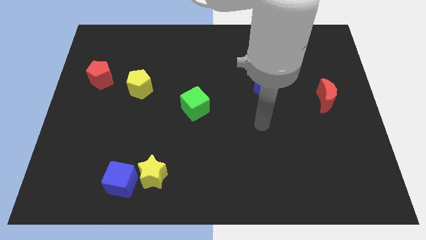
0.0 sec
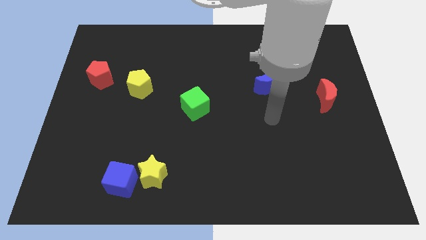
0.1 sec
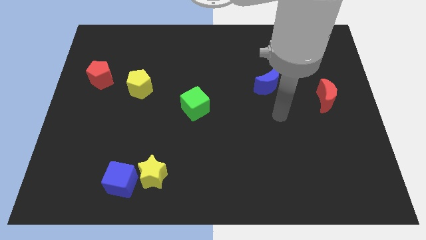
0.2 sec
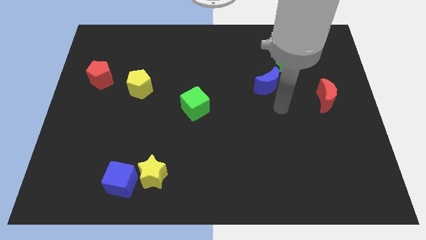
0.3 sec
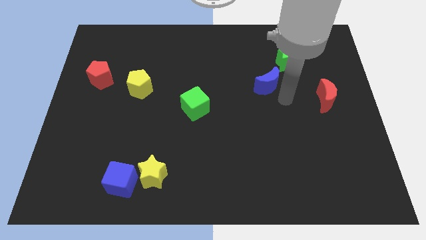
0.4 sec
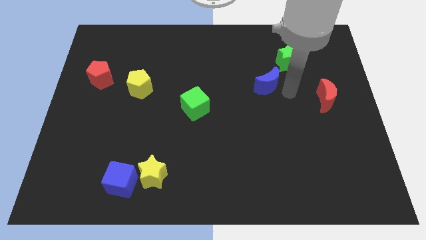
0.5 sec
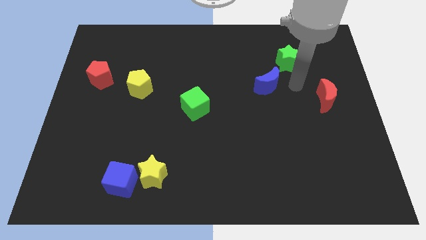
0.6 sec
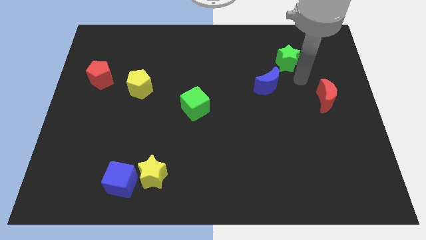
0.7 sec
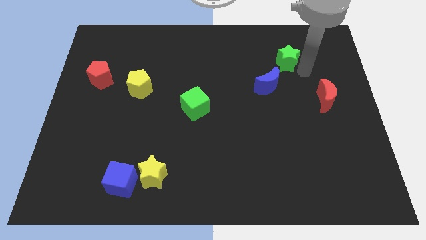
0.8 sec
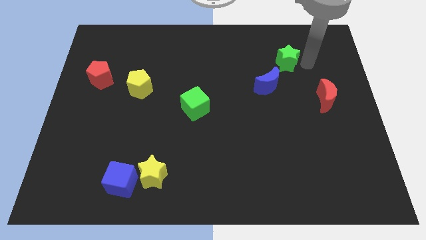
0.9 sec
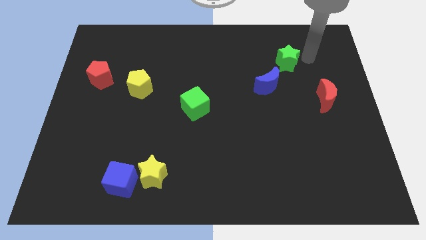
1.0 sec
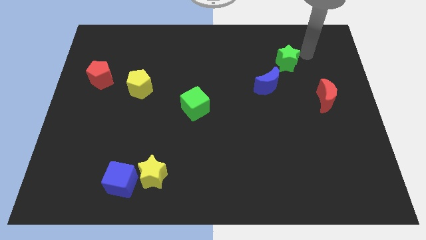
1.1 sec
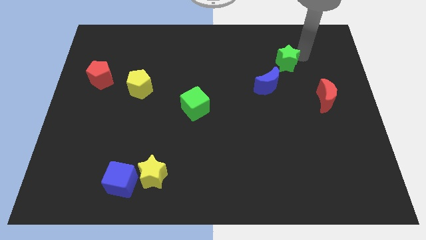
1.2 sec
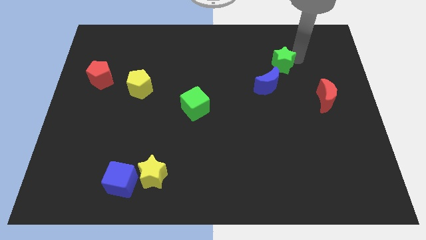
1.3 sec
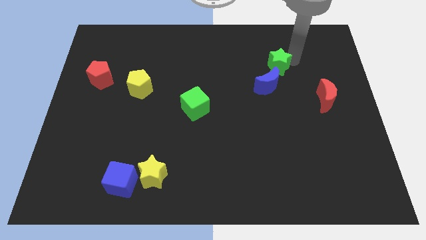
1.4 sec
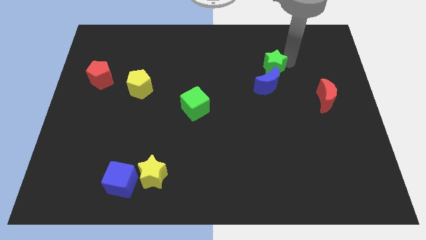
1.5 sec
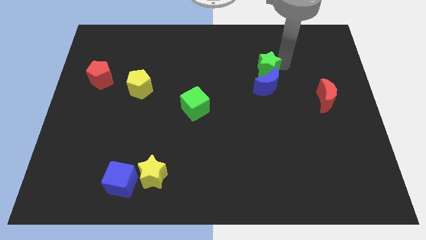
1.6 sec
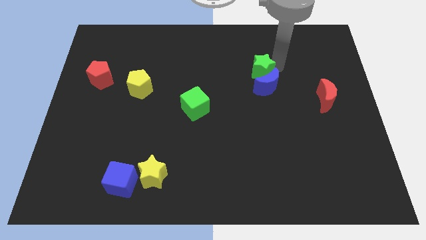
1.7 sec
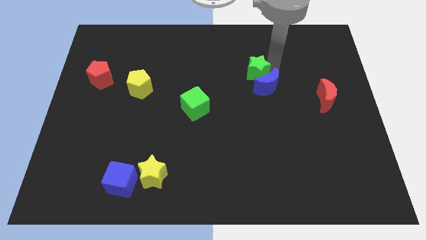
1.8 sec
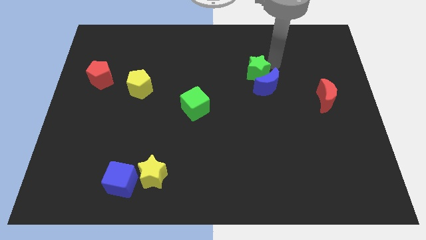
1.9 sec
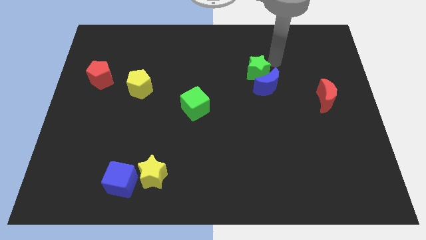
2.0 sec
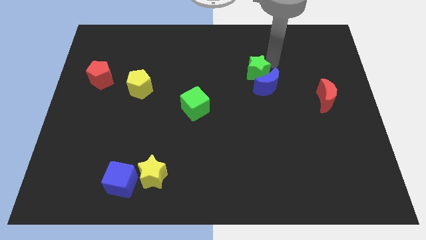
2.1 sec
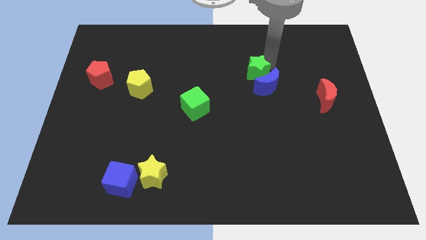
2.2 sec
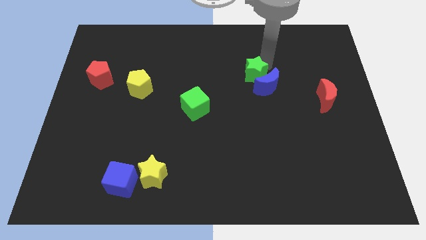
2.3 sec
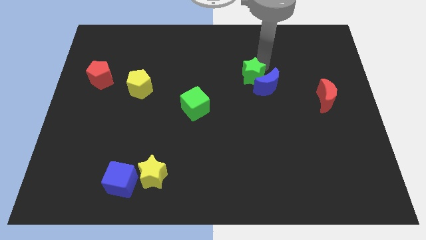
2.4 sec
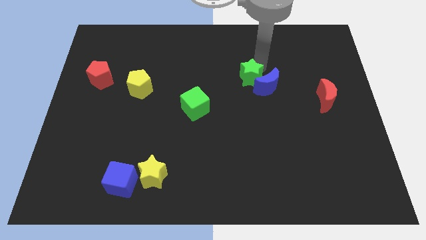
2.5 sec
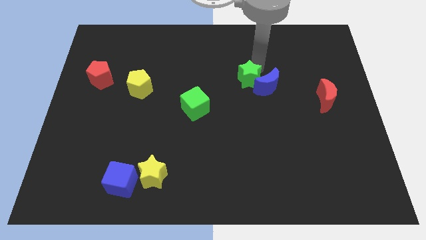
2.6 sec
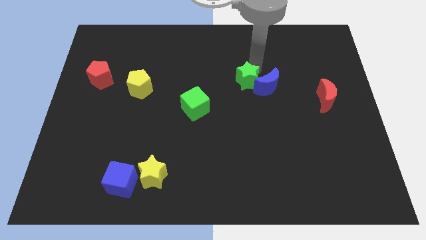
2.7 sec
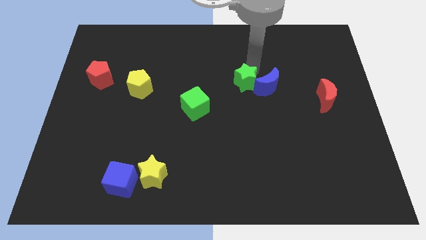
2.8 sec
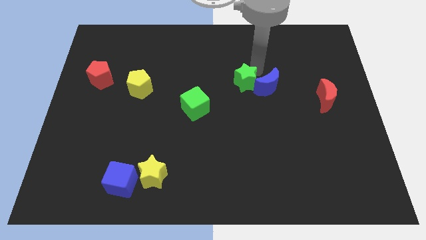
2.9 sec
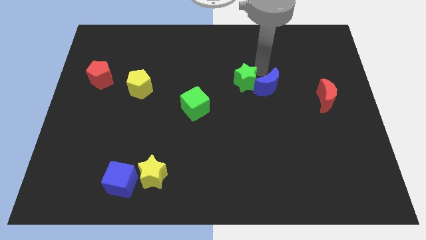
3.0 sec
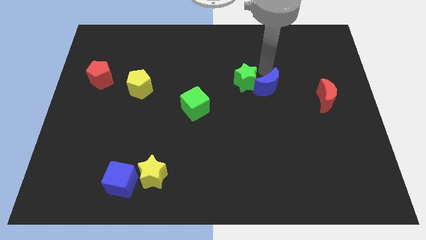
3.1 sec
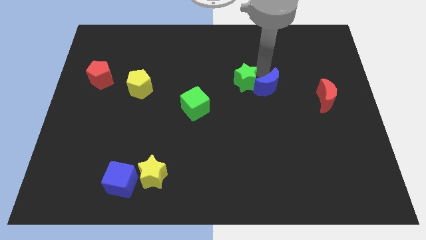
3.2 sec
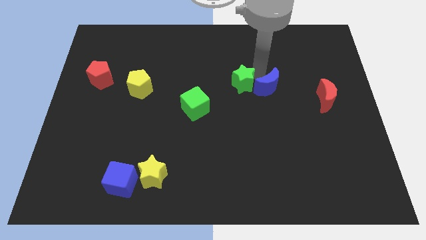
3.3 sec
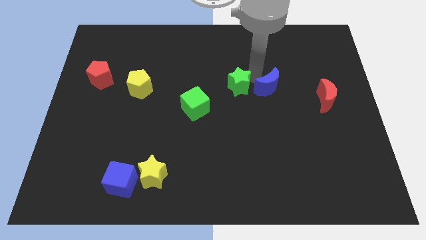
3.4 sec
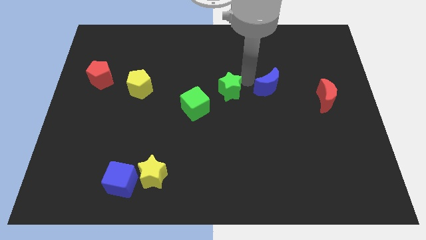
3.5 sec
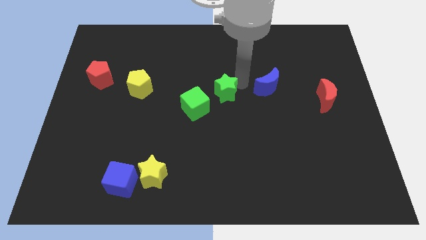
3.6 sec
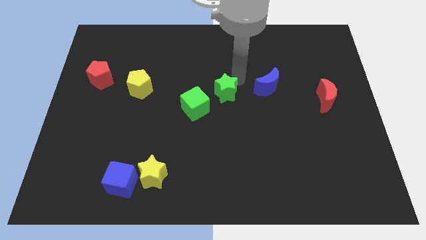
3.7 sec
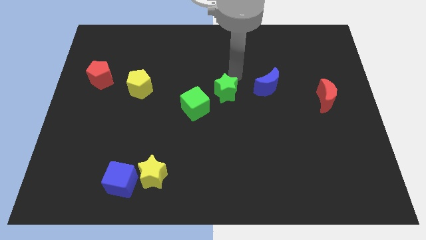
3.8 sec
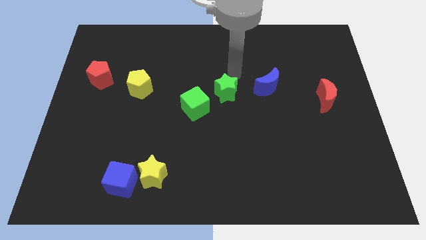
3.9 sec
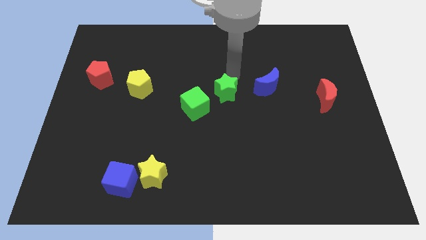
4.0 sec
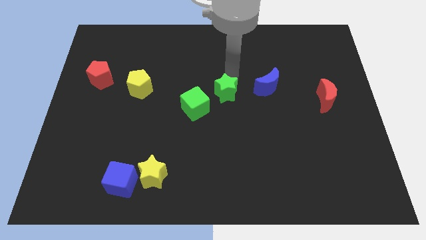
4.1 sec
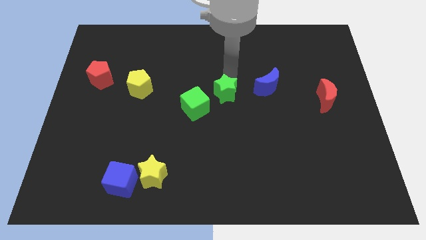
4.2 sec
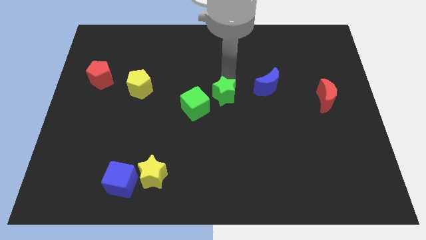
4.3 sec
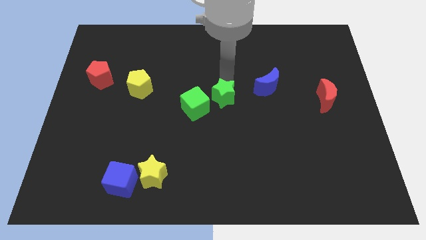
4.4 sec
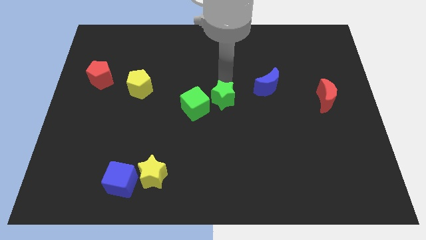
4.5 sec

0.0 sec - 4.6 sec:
move the green star downwards and to the left diagonally

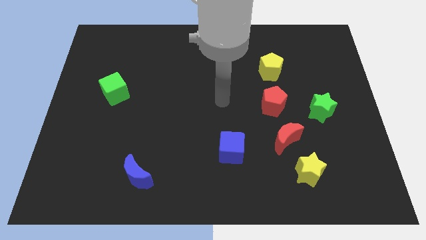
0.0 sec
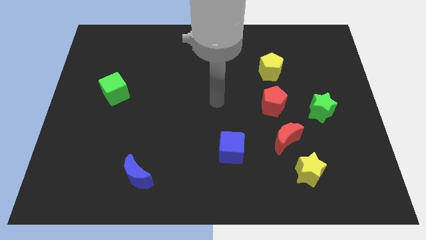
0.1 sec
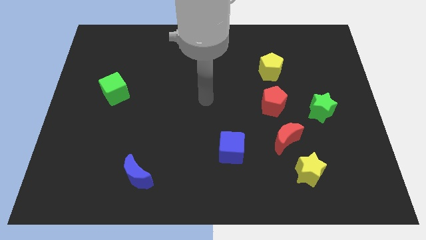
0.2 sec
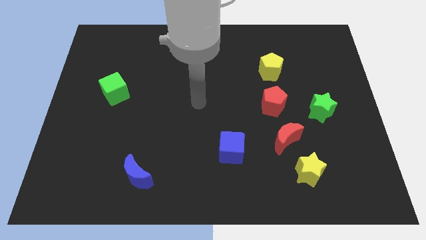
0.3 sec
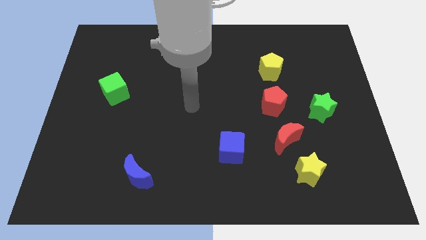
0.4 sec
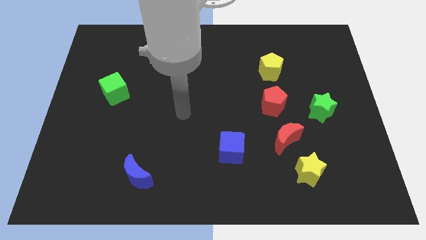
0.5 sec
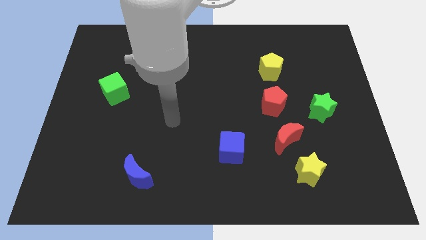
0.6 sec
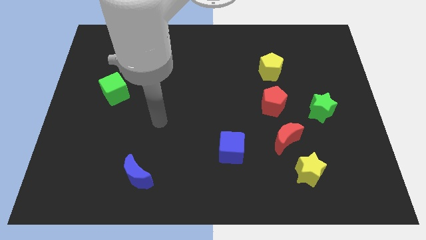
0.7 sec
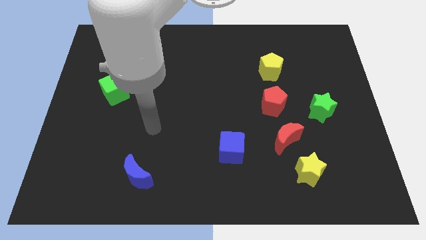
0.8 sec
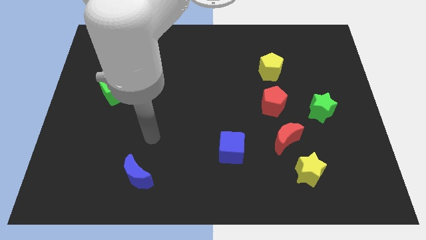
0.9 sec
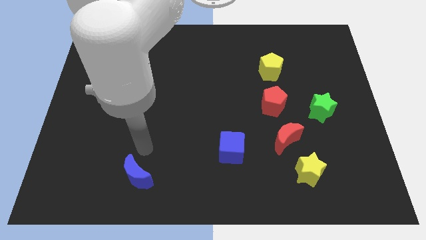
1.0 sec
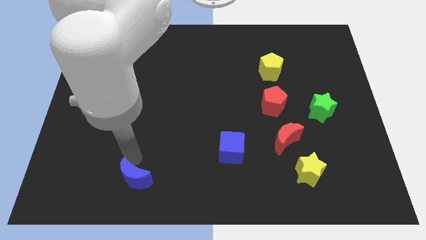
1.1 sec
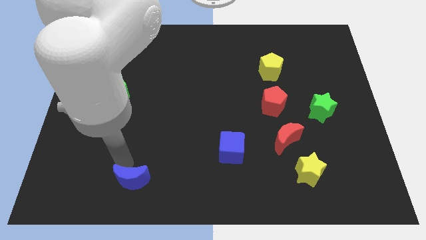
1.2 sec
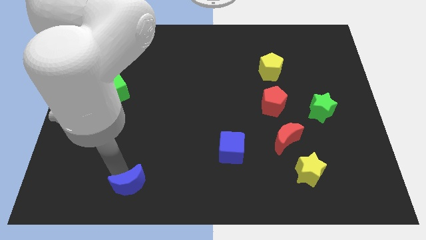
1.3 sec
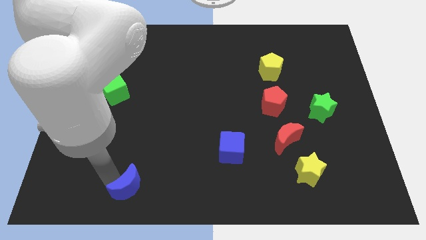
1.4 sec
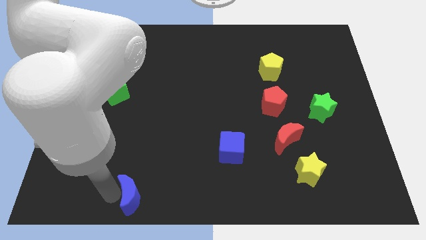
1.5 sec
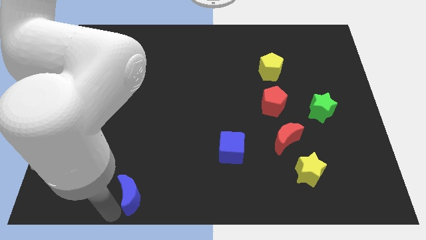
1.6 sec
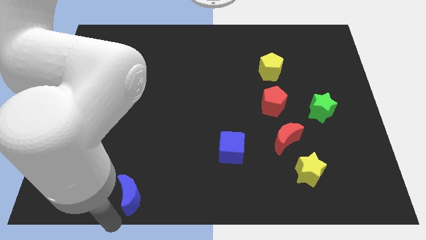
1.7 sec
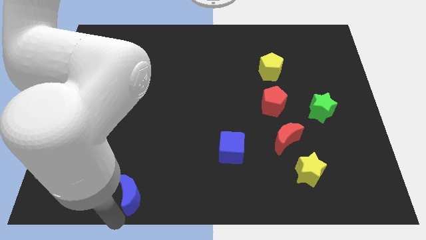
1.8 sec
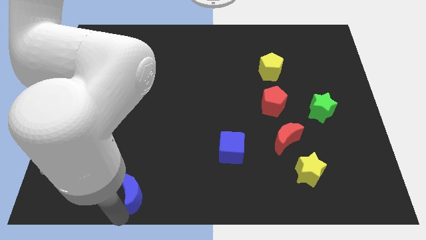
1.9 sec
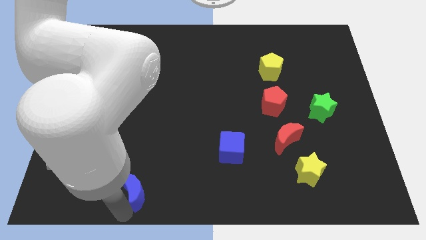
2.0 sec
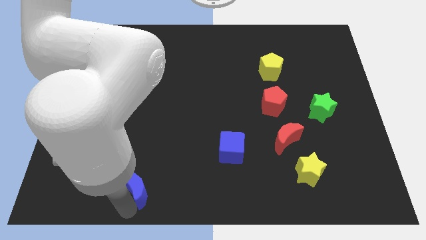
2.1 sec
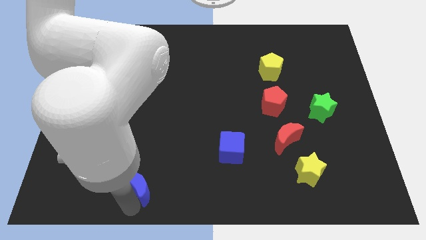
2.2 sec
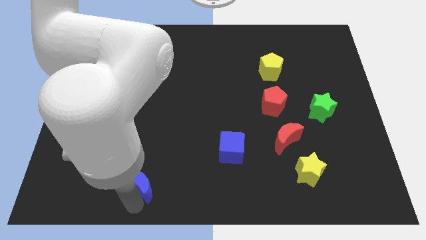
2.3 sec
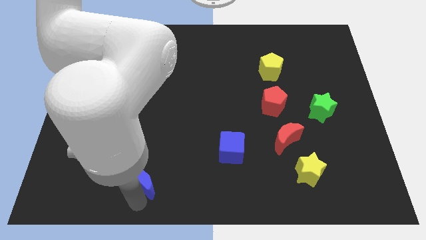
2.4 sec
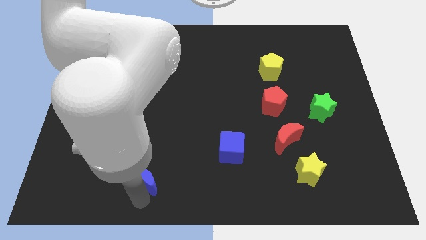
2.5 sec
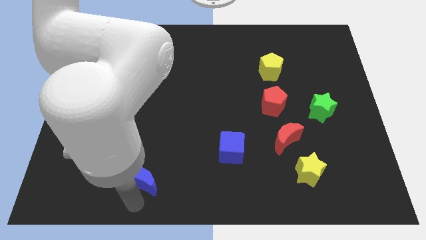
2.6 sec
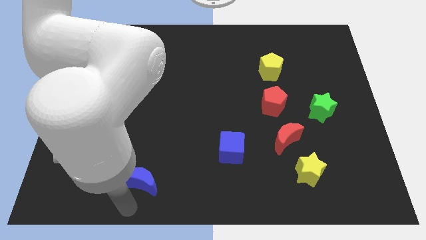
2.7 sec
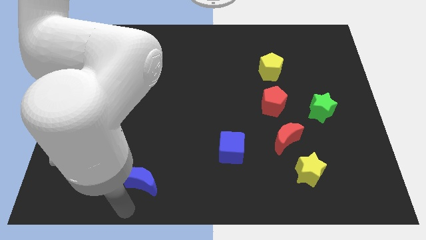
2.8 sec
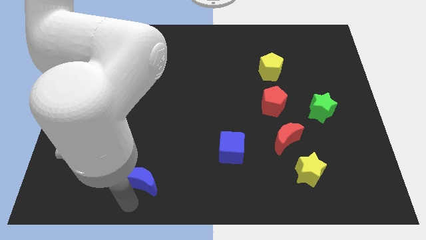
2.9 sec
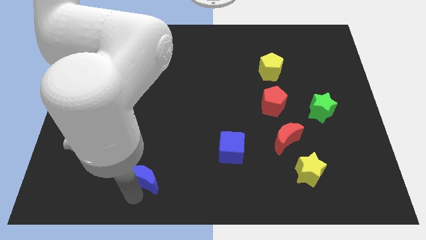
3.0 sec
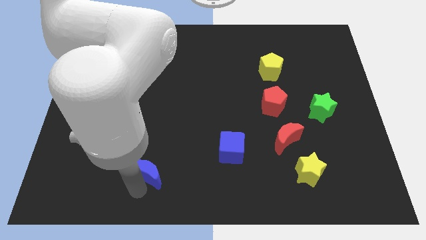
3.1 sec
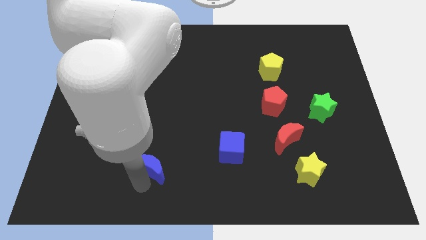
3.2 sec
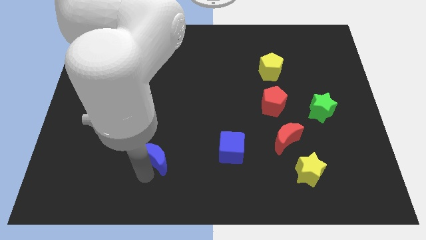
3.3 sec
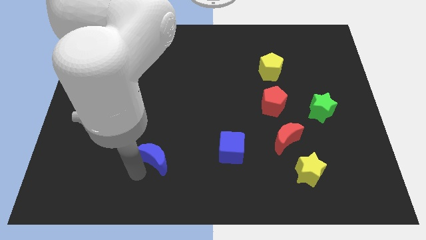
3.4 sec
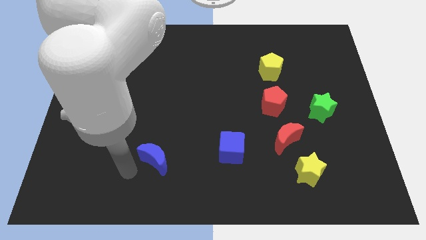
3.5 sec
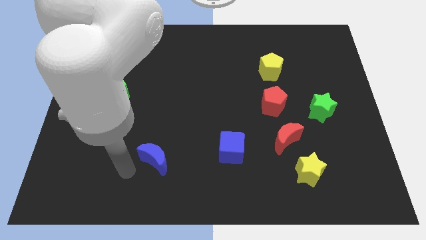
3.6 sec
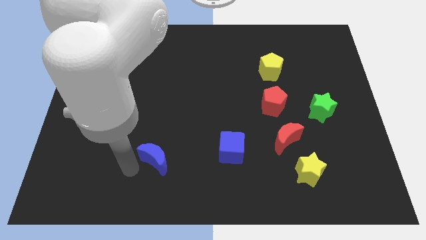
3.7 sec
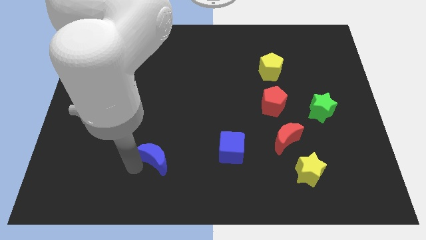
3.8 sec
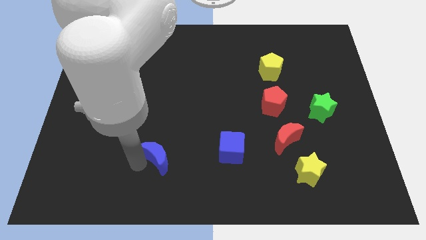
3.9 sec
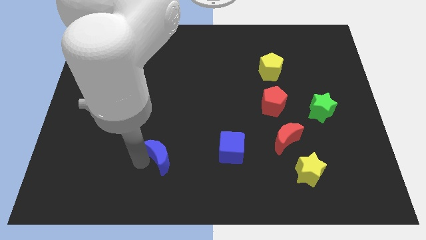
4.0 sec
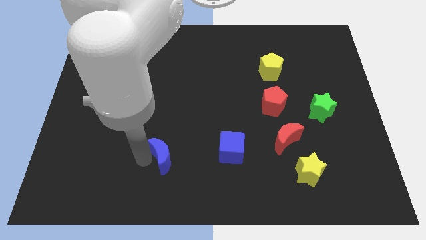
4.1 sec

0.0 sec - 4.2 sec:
slightly slide the blue moon upwards and then to the right
